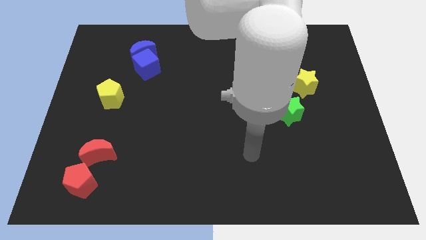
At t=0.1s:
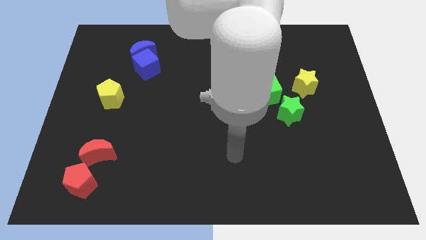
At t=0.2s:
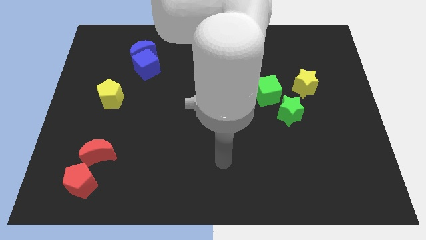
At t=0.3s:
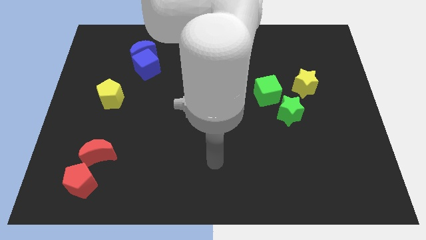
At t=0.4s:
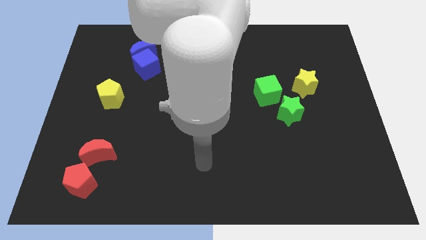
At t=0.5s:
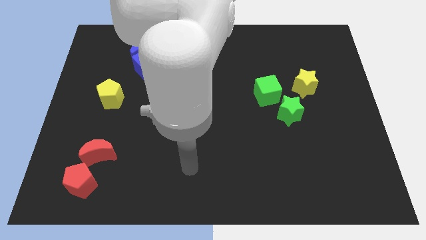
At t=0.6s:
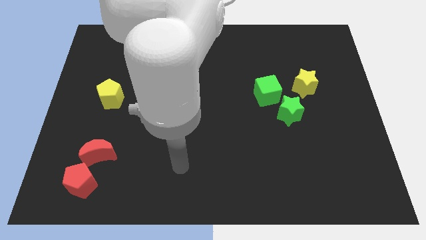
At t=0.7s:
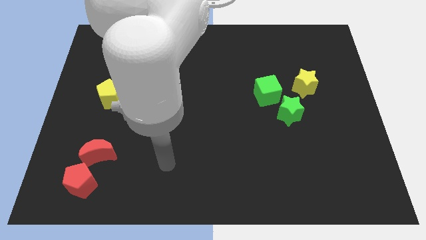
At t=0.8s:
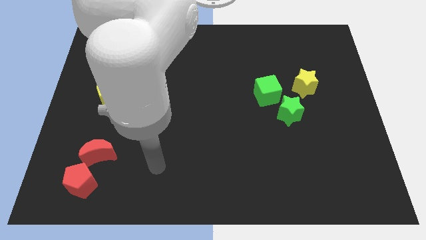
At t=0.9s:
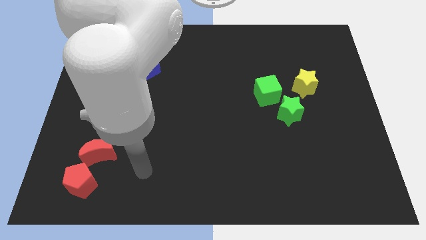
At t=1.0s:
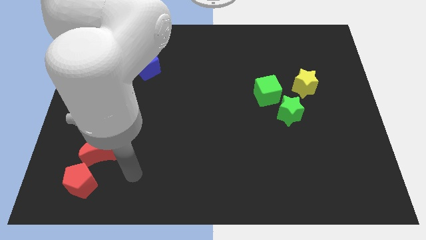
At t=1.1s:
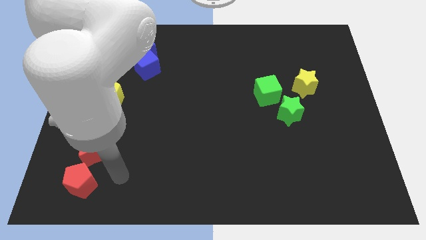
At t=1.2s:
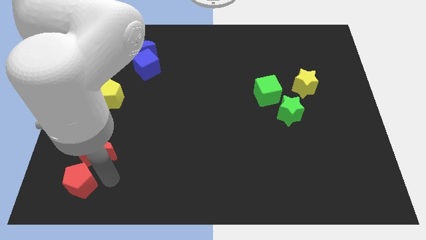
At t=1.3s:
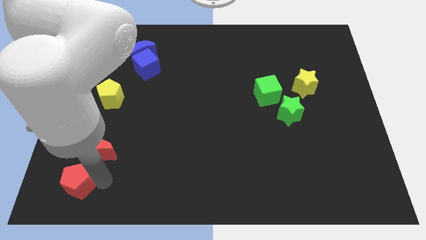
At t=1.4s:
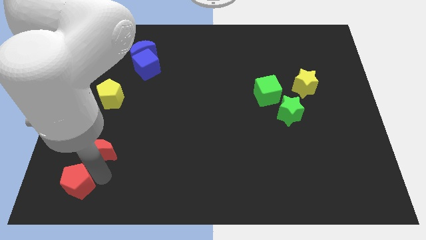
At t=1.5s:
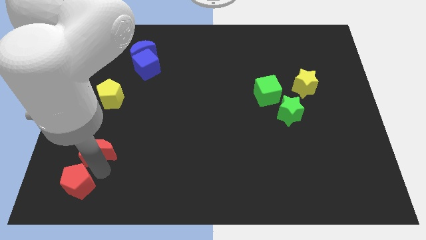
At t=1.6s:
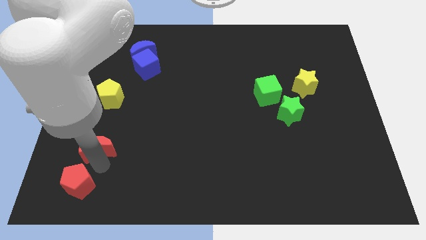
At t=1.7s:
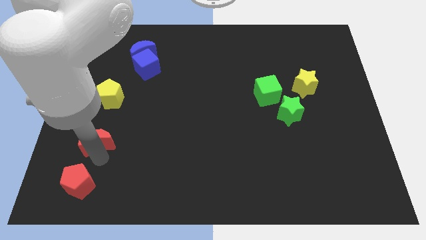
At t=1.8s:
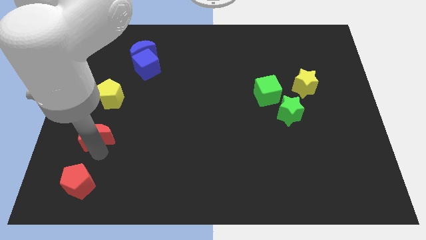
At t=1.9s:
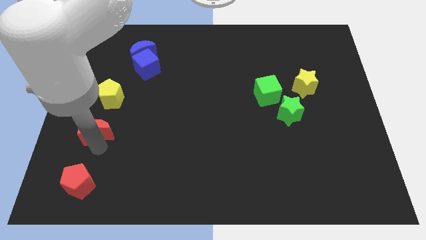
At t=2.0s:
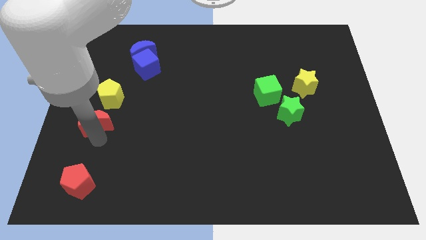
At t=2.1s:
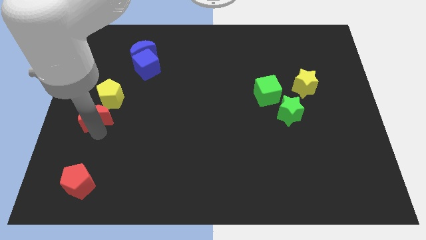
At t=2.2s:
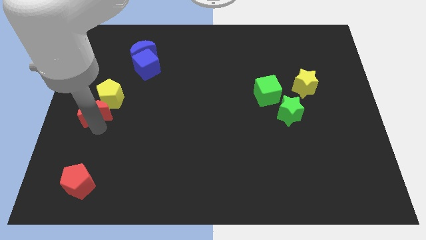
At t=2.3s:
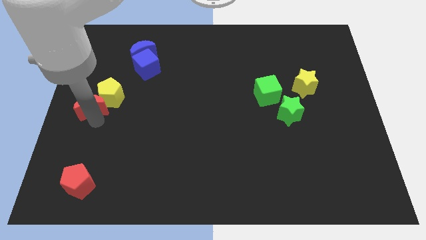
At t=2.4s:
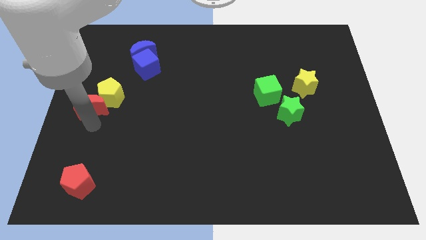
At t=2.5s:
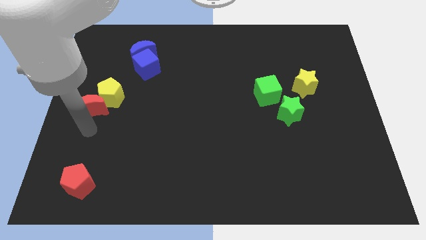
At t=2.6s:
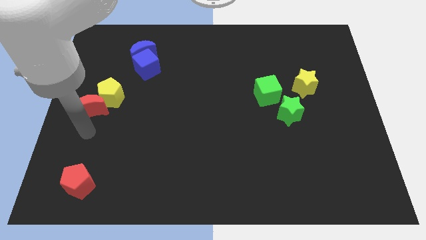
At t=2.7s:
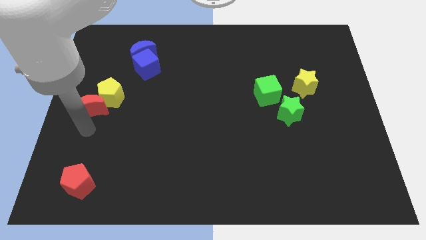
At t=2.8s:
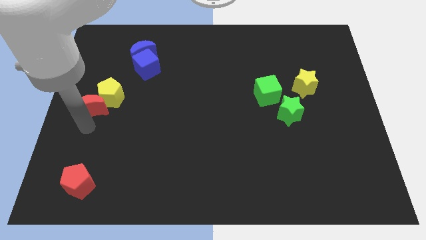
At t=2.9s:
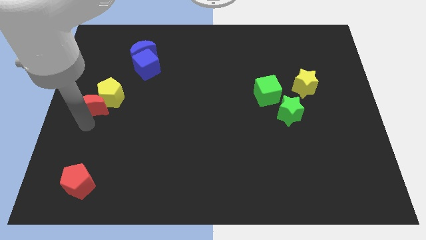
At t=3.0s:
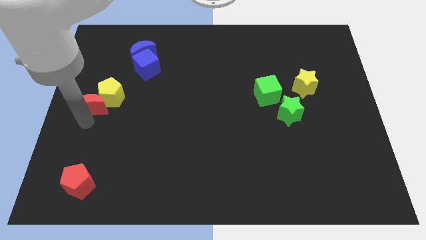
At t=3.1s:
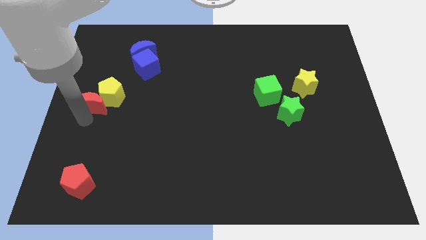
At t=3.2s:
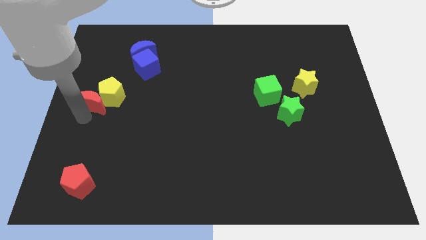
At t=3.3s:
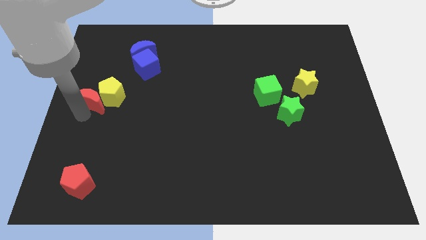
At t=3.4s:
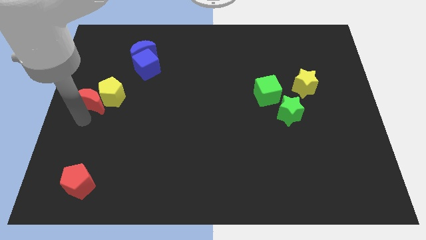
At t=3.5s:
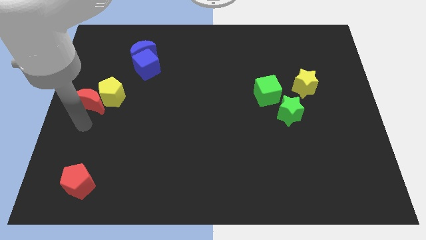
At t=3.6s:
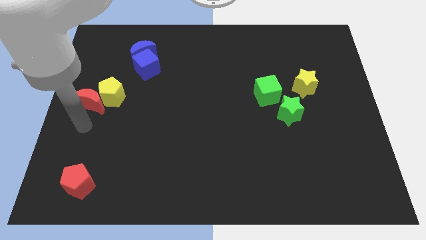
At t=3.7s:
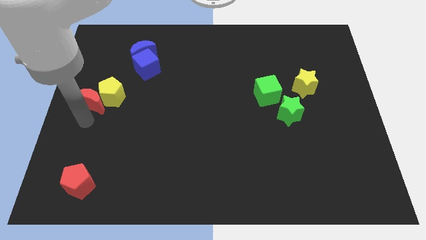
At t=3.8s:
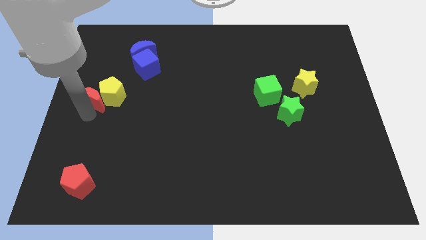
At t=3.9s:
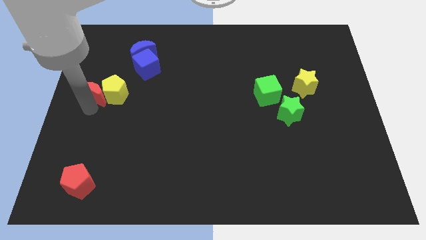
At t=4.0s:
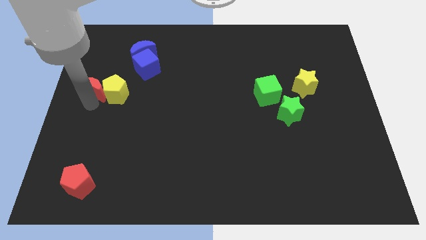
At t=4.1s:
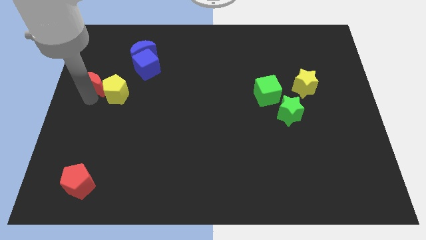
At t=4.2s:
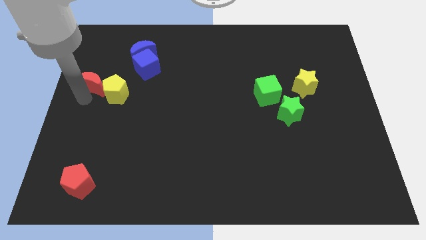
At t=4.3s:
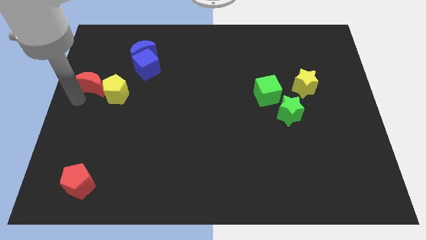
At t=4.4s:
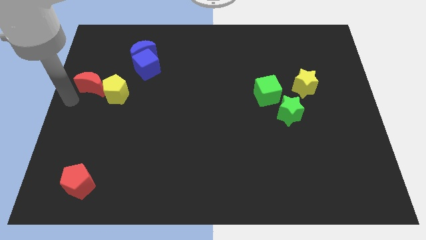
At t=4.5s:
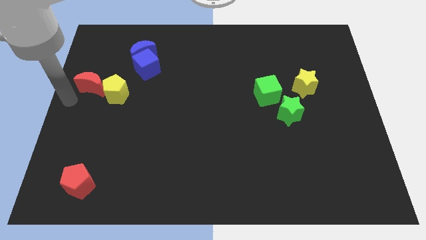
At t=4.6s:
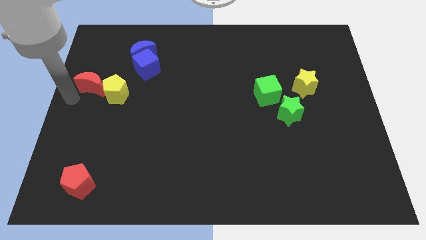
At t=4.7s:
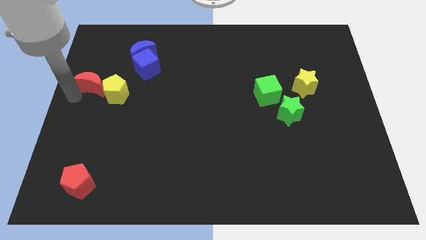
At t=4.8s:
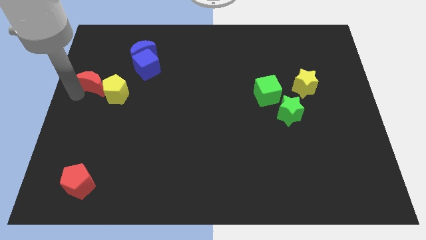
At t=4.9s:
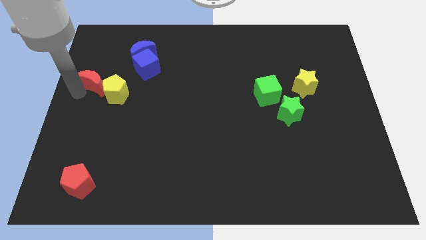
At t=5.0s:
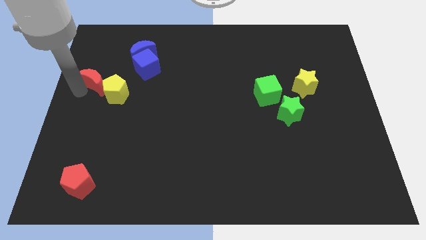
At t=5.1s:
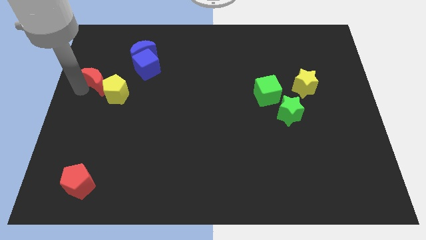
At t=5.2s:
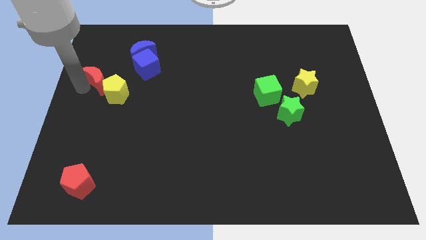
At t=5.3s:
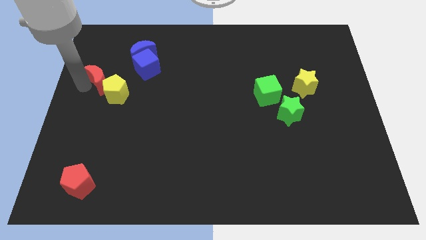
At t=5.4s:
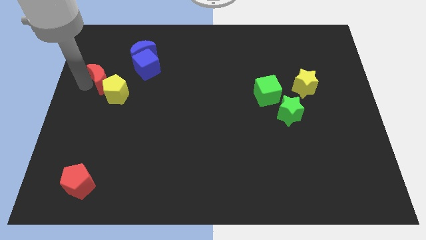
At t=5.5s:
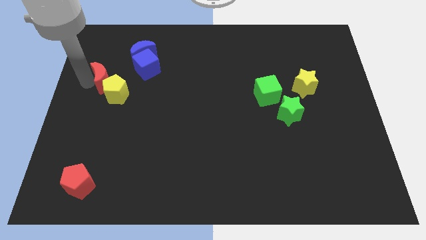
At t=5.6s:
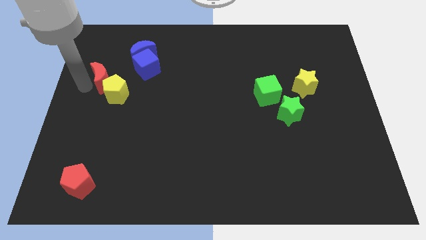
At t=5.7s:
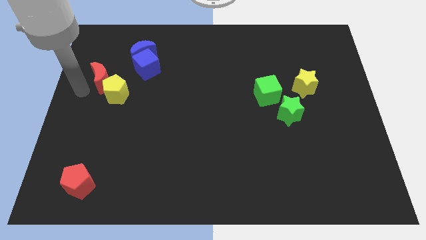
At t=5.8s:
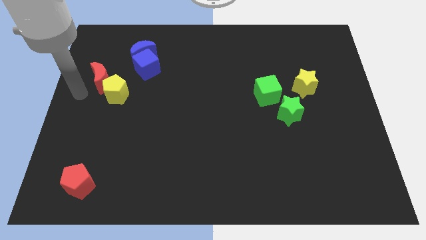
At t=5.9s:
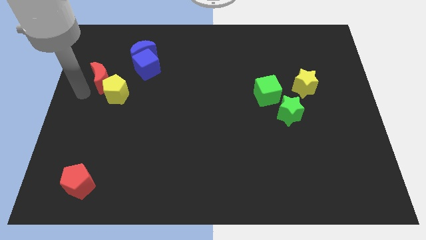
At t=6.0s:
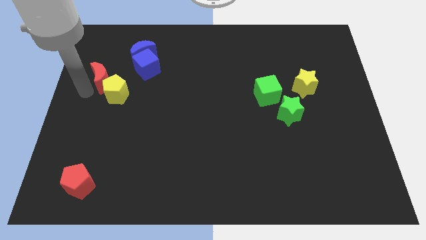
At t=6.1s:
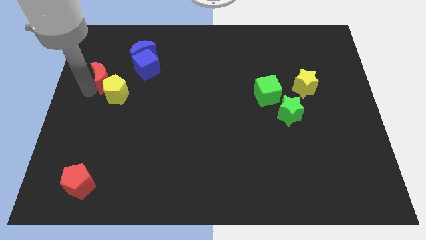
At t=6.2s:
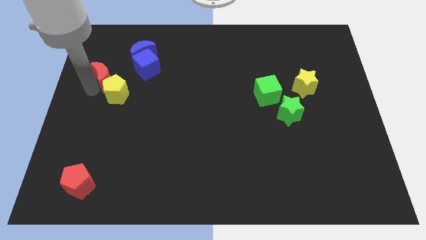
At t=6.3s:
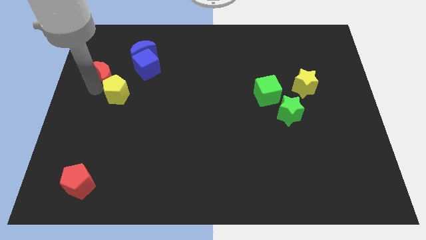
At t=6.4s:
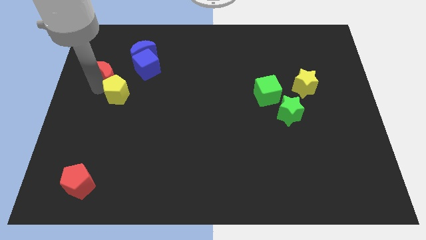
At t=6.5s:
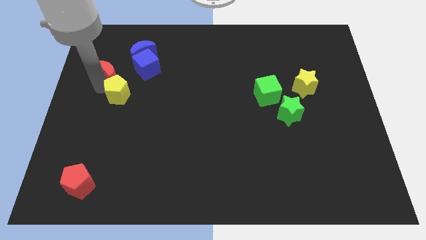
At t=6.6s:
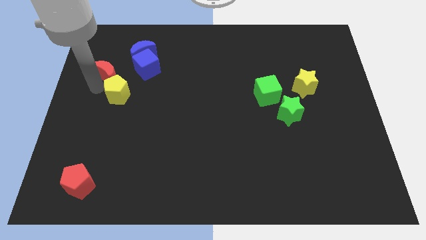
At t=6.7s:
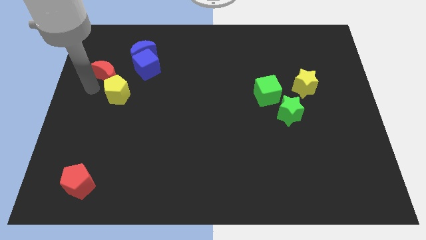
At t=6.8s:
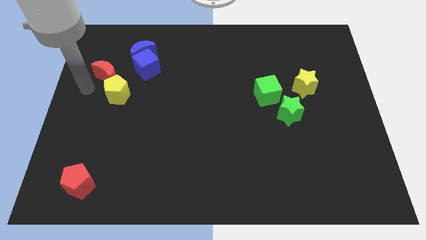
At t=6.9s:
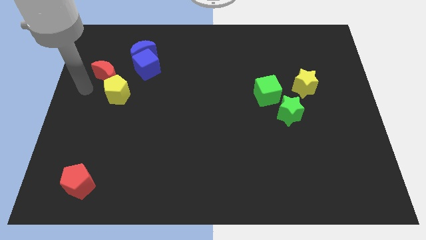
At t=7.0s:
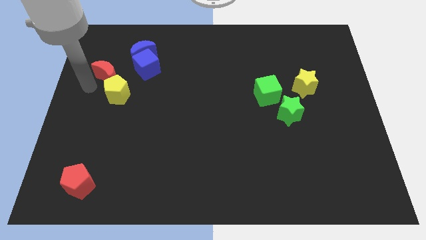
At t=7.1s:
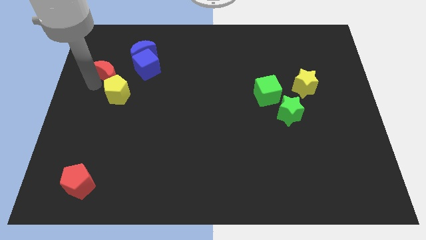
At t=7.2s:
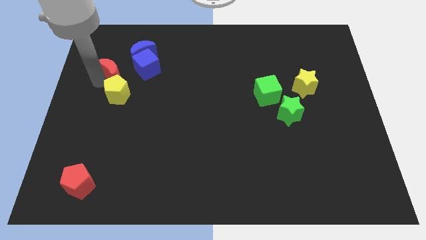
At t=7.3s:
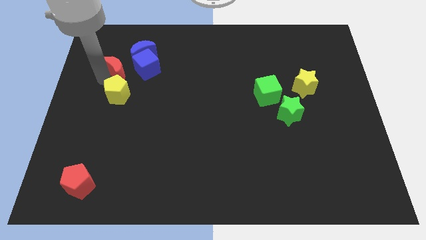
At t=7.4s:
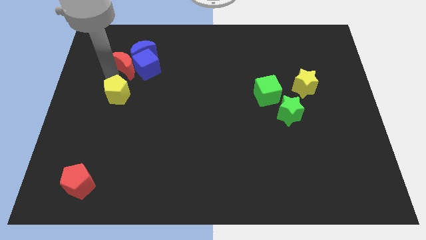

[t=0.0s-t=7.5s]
put the red moon close to the blue moon
